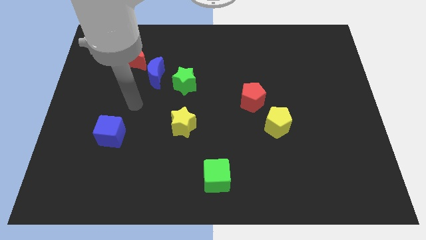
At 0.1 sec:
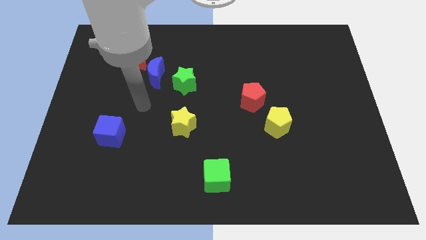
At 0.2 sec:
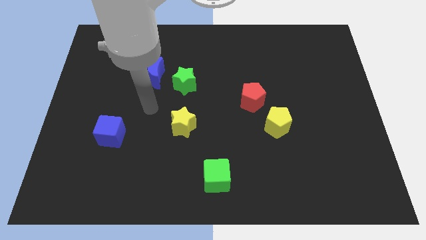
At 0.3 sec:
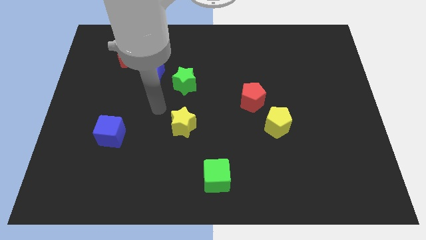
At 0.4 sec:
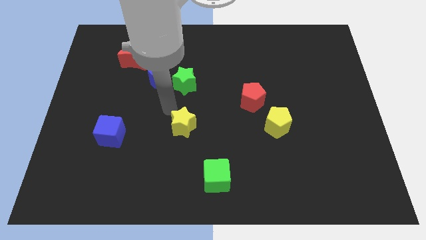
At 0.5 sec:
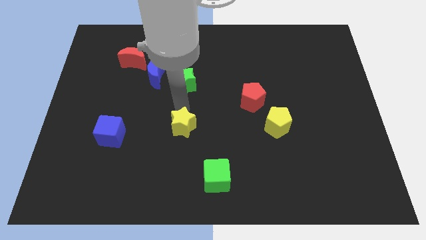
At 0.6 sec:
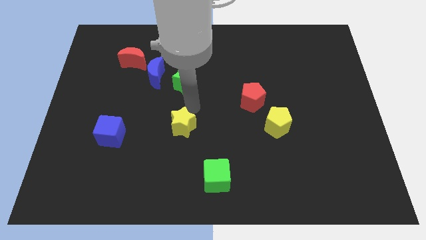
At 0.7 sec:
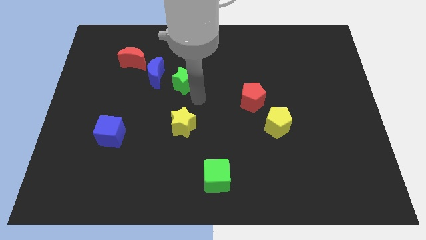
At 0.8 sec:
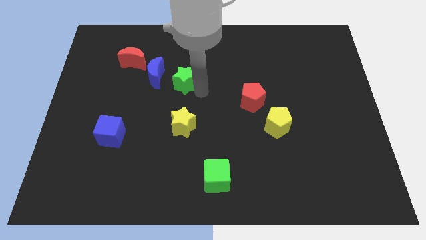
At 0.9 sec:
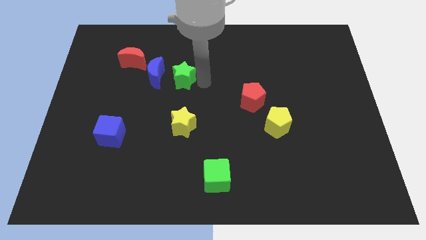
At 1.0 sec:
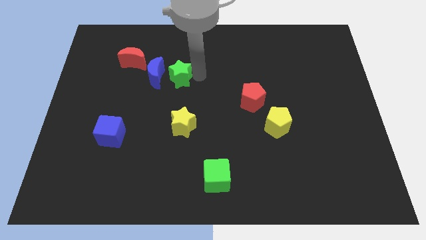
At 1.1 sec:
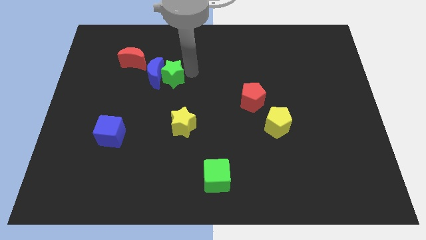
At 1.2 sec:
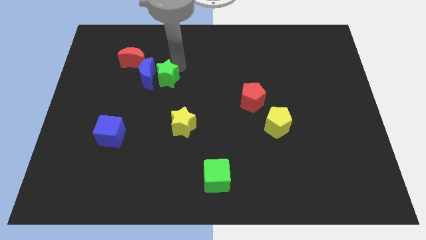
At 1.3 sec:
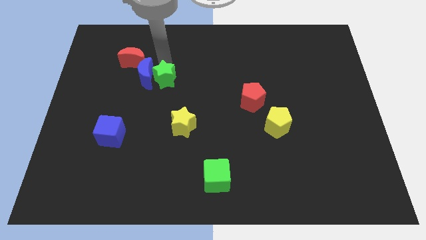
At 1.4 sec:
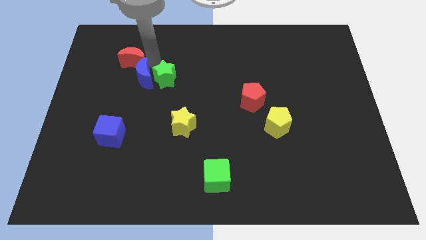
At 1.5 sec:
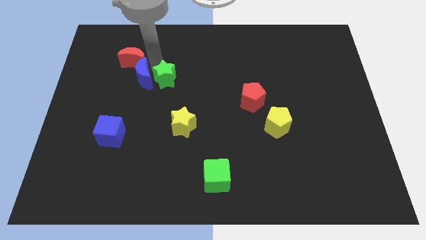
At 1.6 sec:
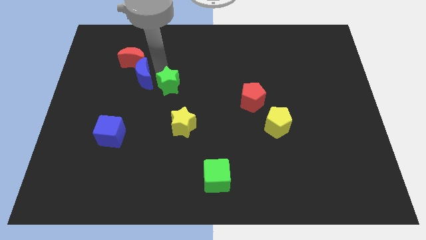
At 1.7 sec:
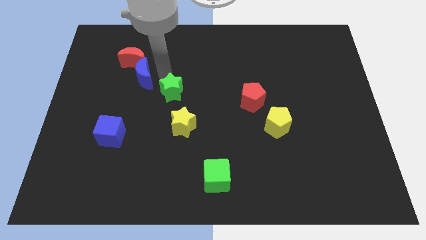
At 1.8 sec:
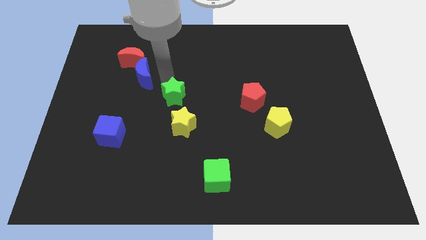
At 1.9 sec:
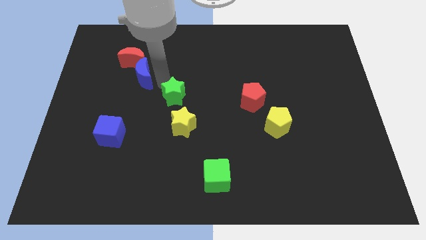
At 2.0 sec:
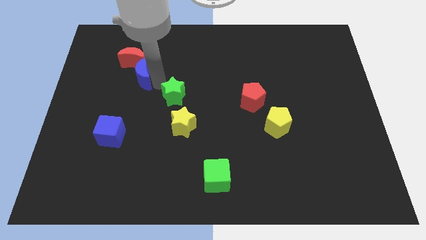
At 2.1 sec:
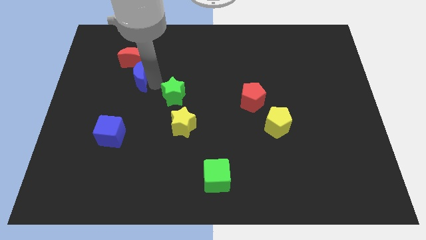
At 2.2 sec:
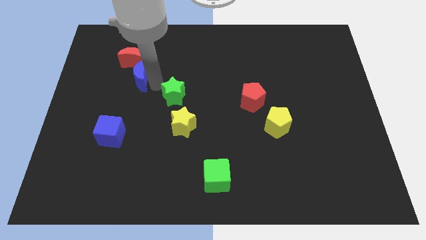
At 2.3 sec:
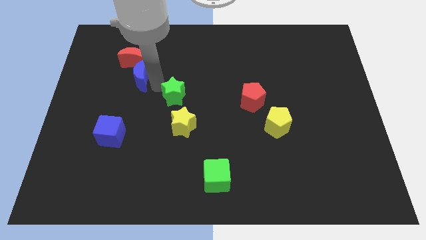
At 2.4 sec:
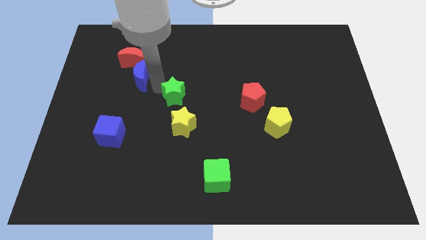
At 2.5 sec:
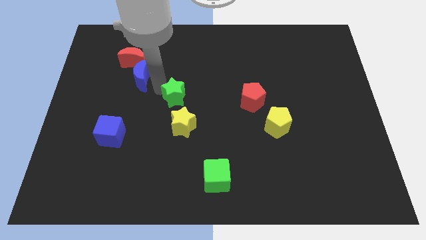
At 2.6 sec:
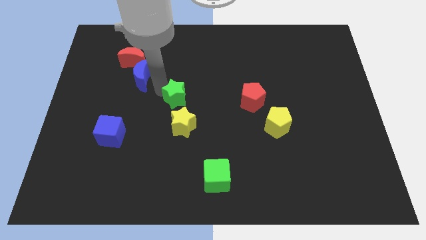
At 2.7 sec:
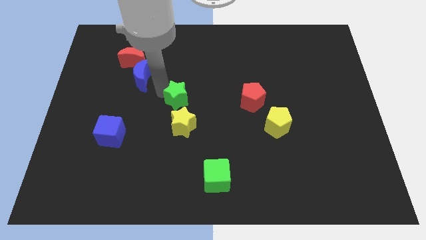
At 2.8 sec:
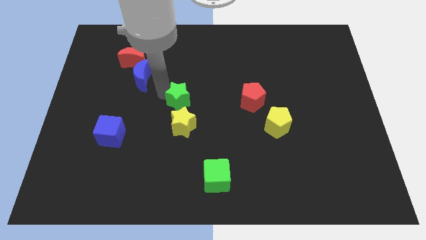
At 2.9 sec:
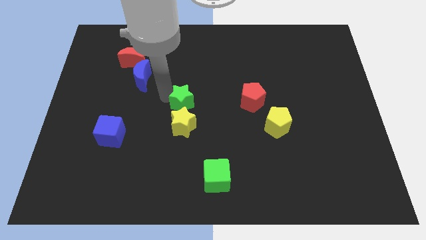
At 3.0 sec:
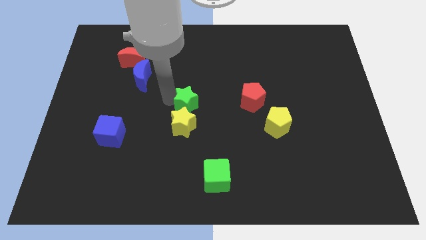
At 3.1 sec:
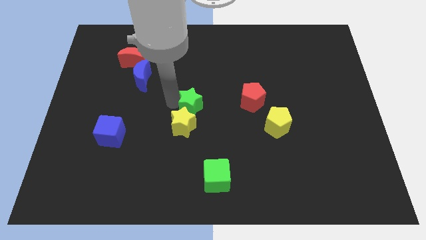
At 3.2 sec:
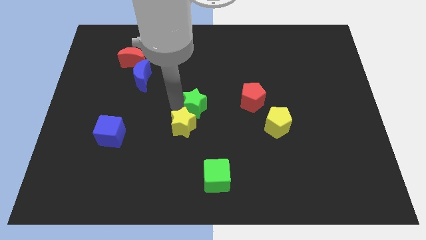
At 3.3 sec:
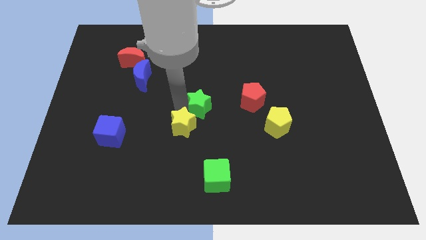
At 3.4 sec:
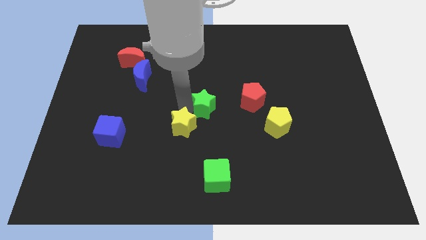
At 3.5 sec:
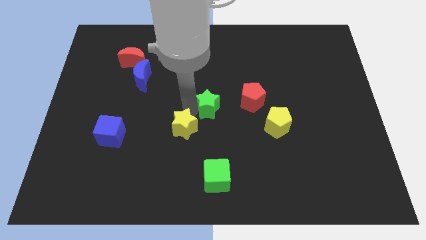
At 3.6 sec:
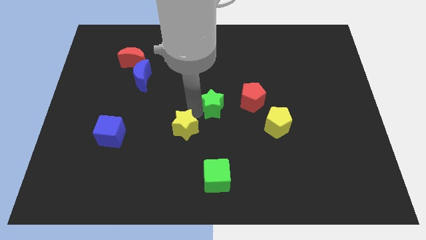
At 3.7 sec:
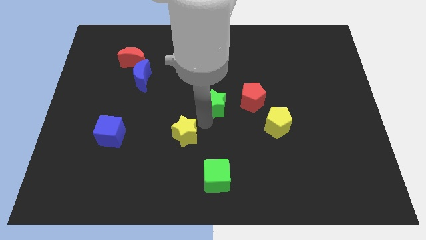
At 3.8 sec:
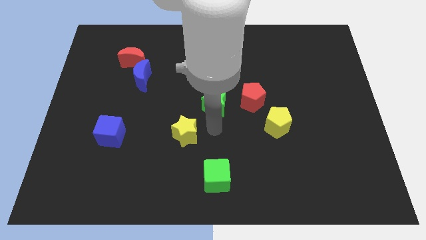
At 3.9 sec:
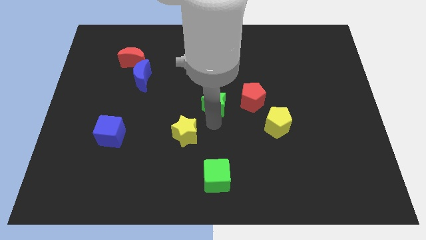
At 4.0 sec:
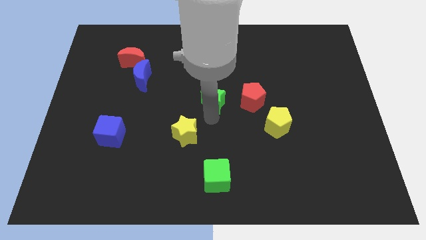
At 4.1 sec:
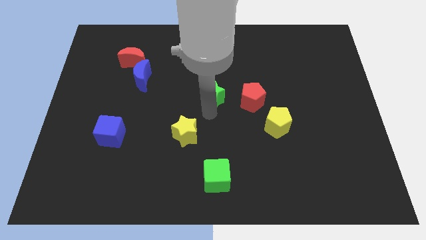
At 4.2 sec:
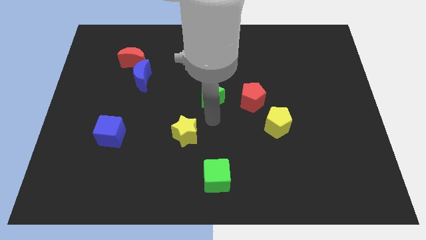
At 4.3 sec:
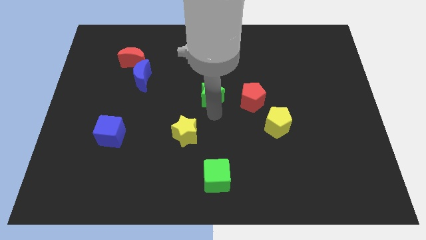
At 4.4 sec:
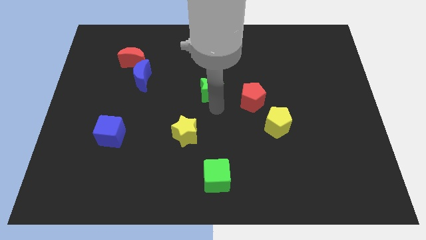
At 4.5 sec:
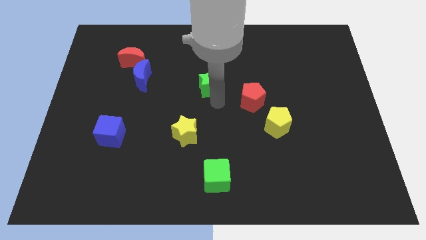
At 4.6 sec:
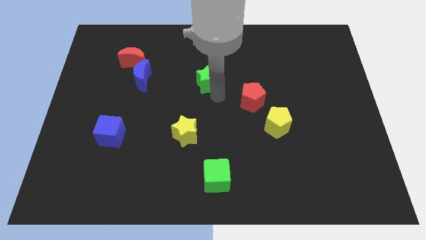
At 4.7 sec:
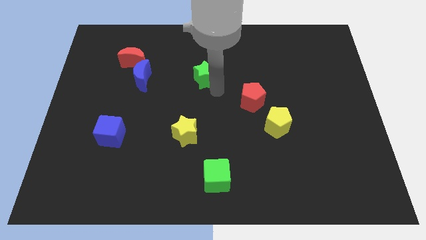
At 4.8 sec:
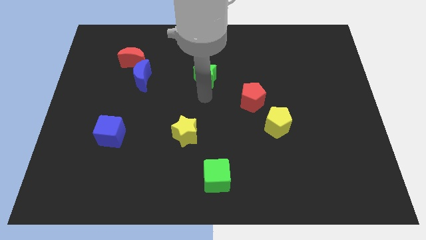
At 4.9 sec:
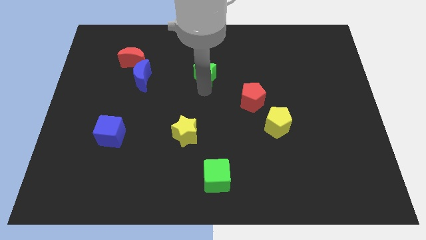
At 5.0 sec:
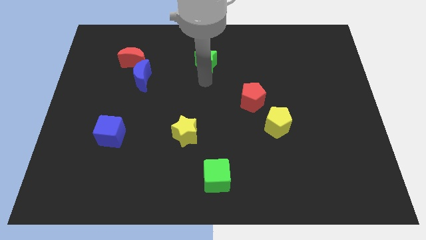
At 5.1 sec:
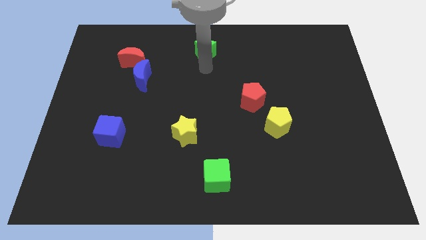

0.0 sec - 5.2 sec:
put the green star to the top side
